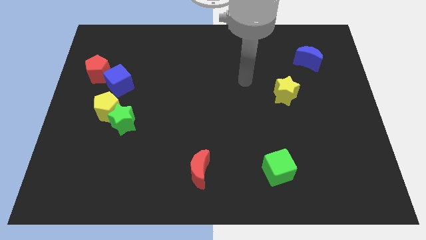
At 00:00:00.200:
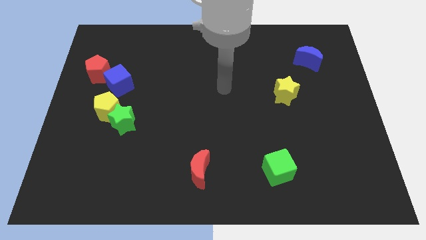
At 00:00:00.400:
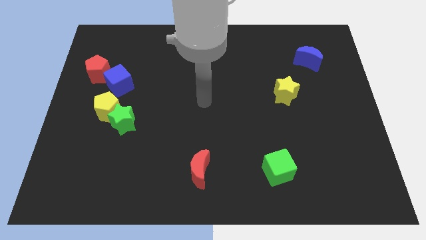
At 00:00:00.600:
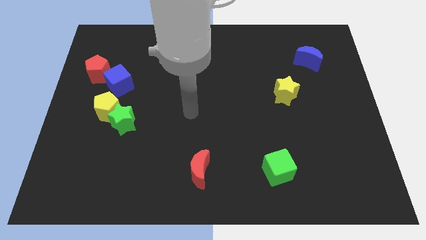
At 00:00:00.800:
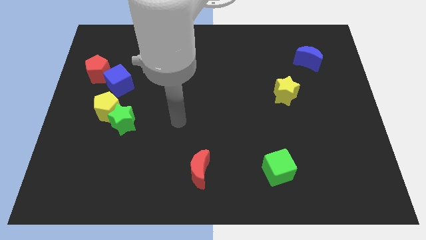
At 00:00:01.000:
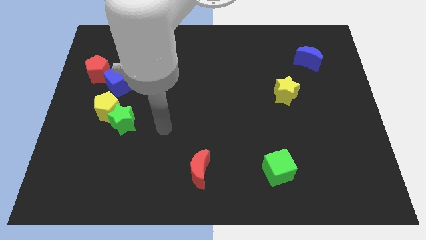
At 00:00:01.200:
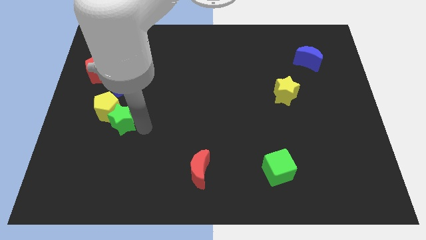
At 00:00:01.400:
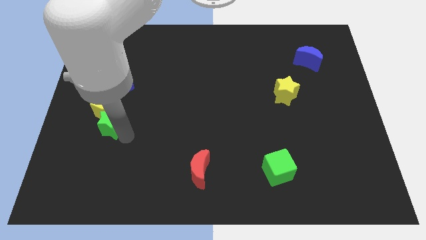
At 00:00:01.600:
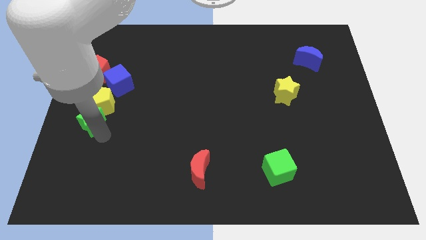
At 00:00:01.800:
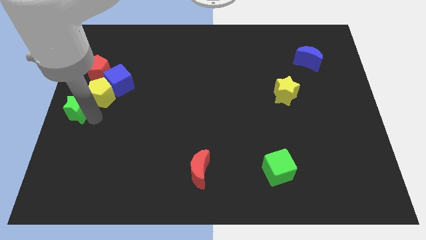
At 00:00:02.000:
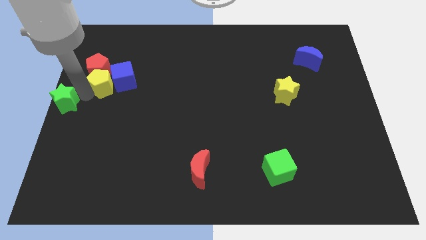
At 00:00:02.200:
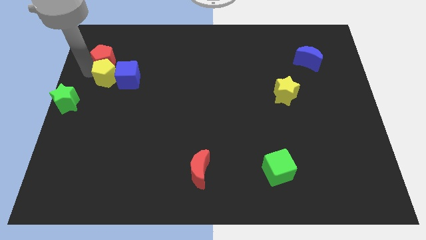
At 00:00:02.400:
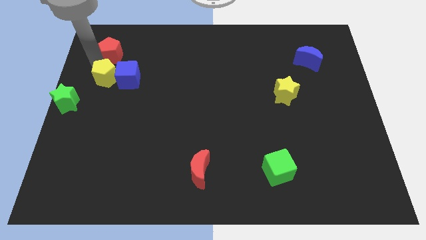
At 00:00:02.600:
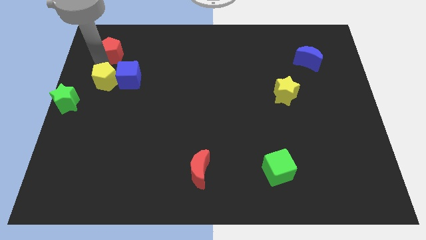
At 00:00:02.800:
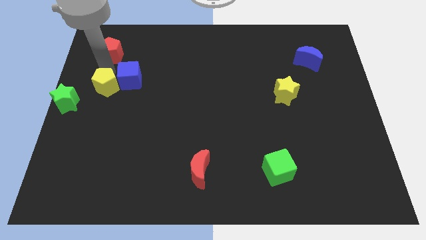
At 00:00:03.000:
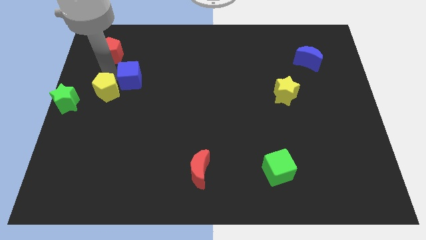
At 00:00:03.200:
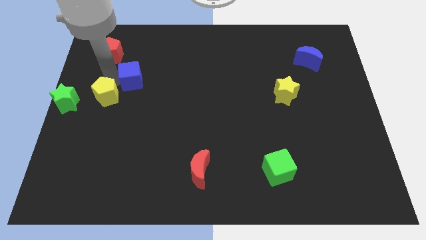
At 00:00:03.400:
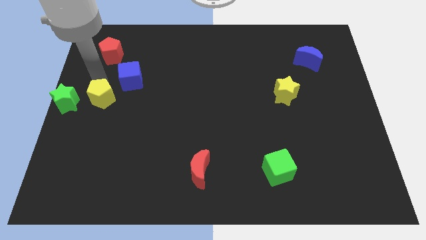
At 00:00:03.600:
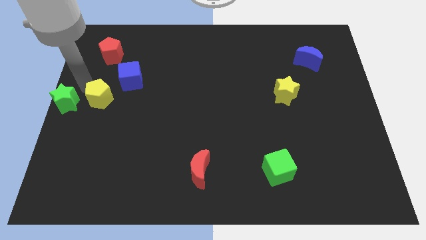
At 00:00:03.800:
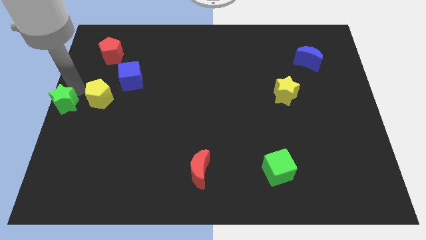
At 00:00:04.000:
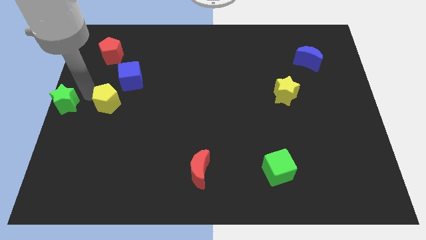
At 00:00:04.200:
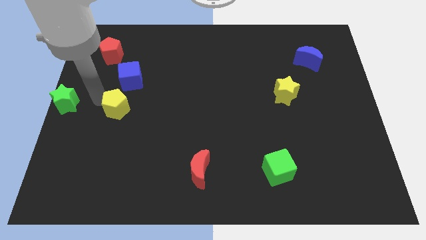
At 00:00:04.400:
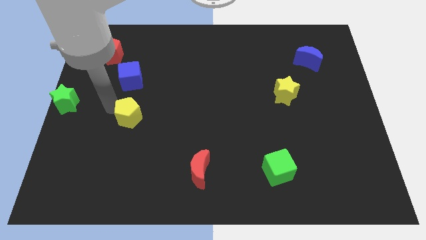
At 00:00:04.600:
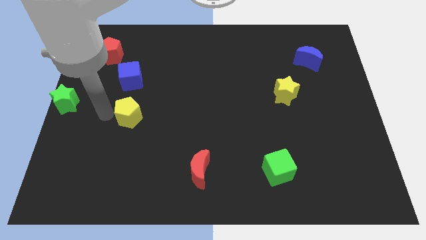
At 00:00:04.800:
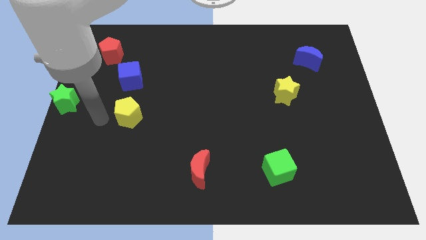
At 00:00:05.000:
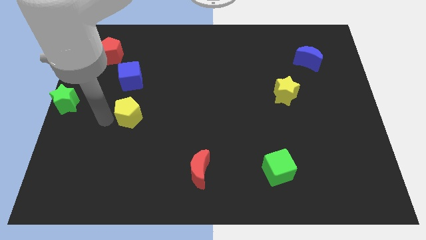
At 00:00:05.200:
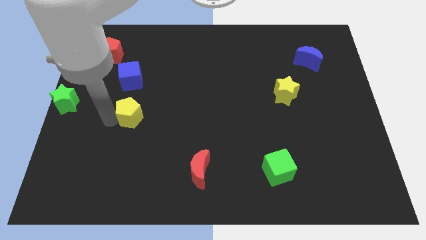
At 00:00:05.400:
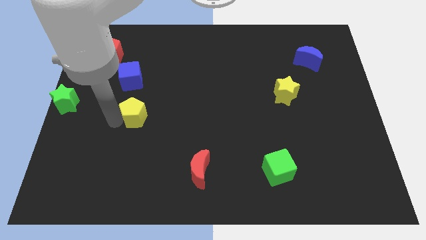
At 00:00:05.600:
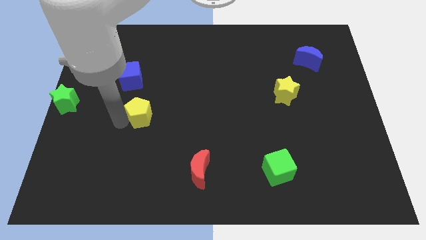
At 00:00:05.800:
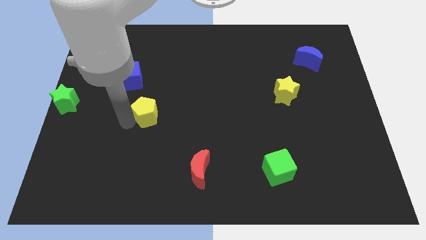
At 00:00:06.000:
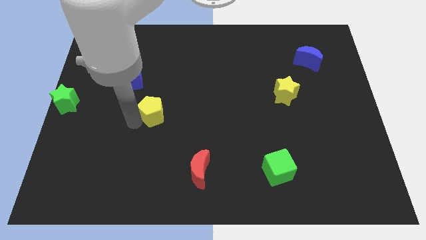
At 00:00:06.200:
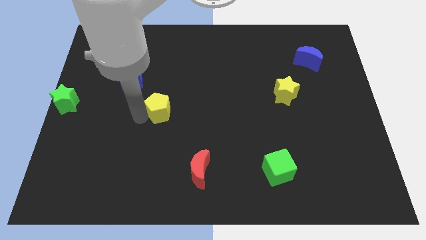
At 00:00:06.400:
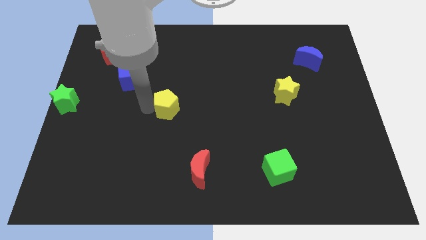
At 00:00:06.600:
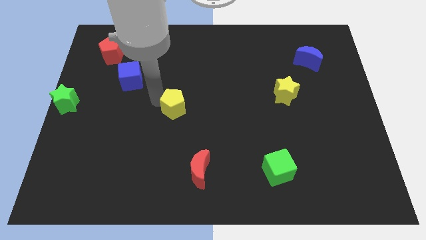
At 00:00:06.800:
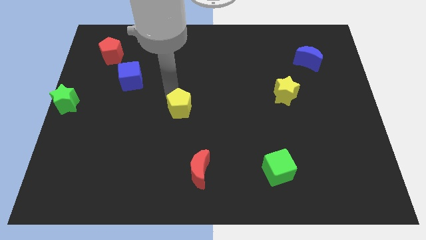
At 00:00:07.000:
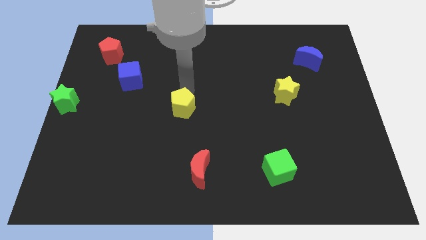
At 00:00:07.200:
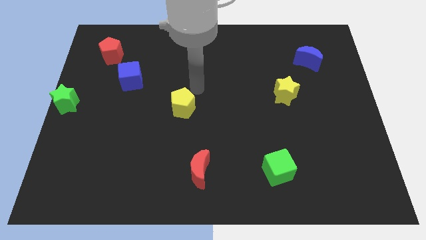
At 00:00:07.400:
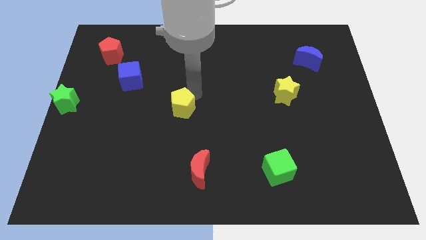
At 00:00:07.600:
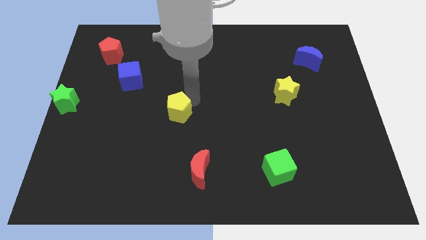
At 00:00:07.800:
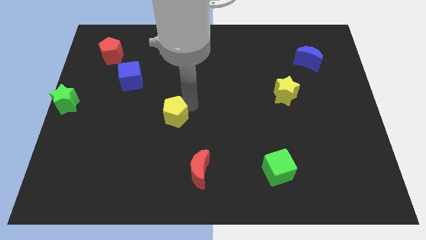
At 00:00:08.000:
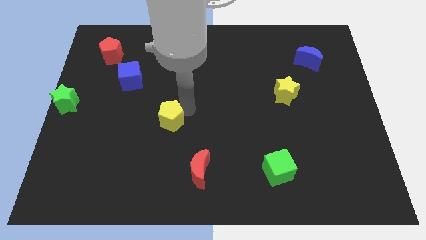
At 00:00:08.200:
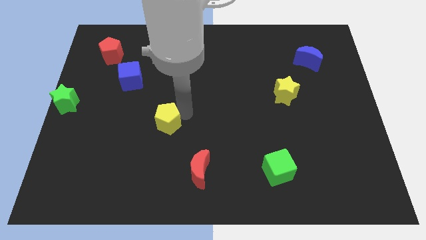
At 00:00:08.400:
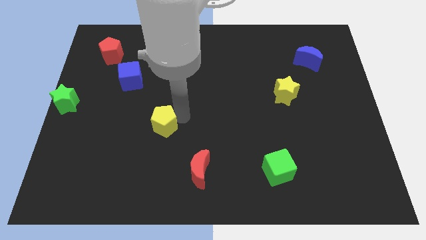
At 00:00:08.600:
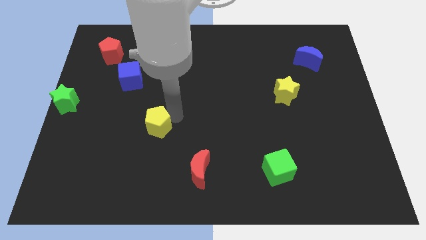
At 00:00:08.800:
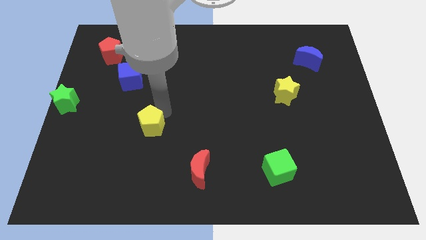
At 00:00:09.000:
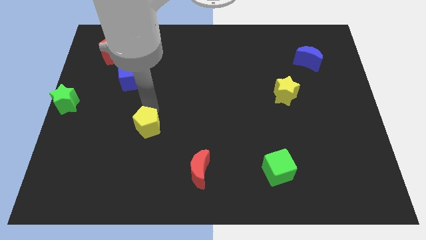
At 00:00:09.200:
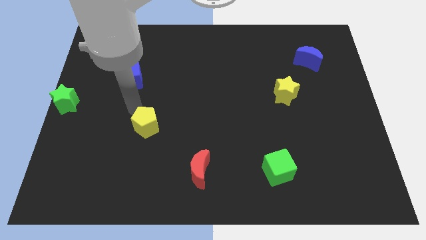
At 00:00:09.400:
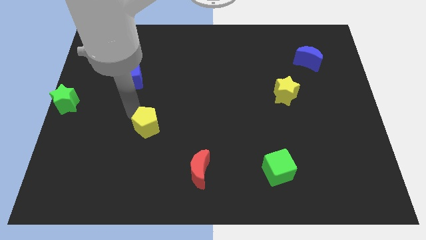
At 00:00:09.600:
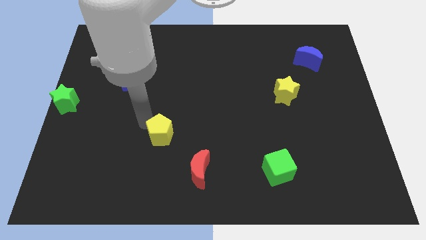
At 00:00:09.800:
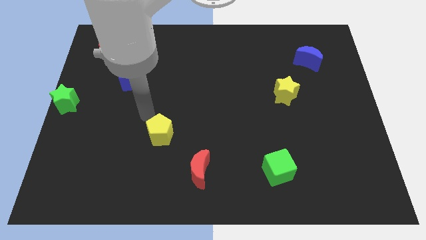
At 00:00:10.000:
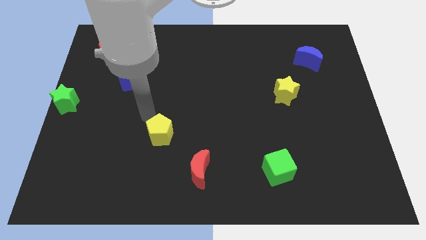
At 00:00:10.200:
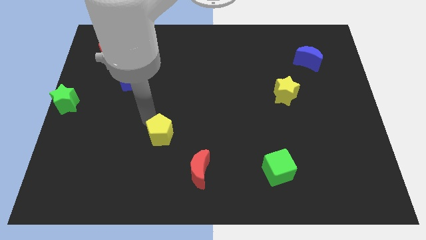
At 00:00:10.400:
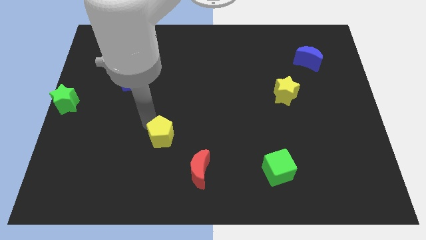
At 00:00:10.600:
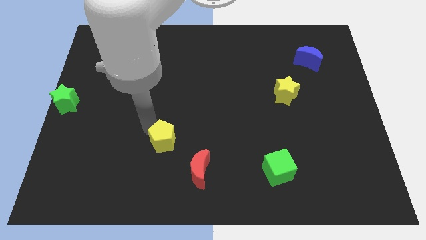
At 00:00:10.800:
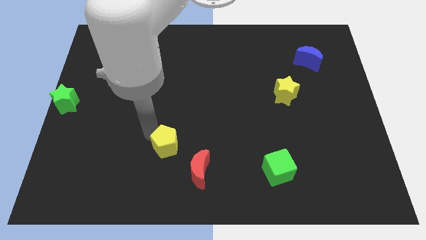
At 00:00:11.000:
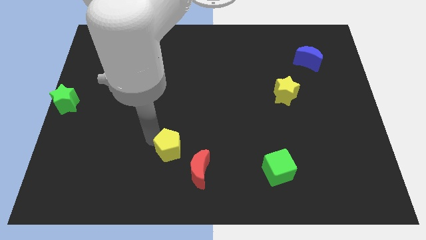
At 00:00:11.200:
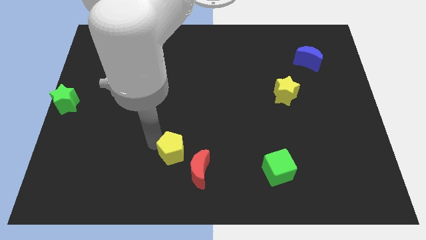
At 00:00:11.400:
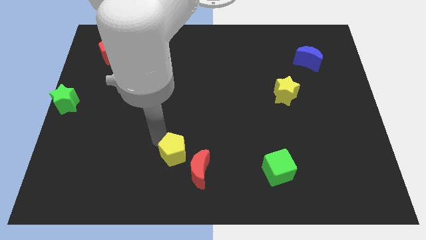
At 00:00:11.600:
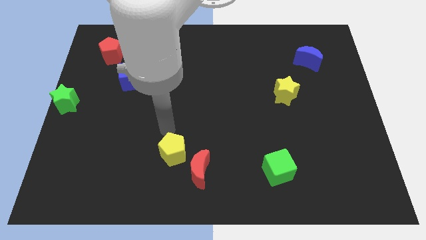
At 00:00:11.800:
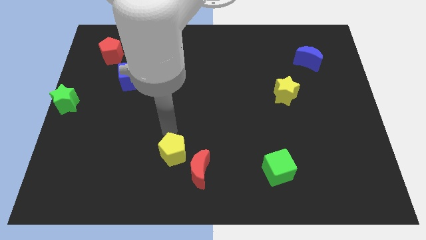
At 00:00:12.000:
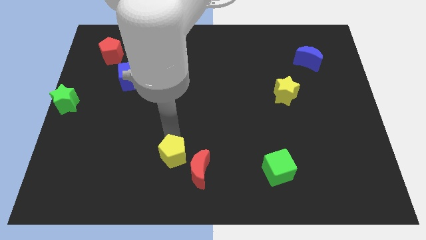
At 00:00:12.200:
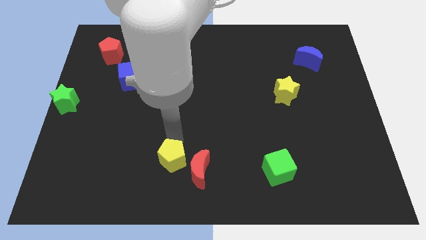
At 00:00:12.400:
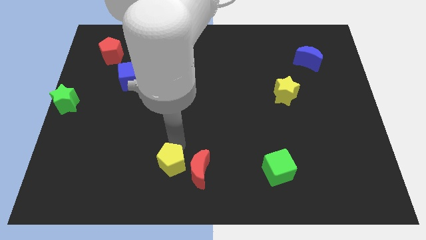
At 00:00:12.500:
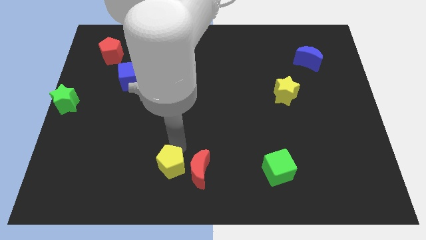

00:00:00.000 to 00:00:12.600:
put the yellow pentagon to the bottom

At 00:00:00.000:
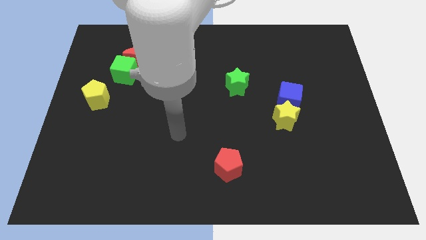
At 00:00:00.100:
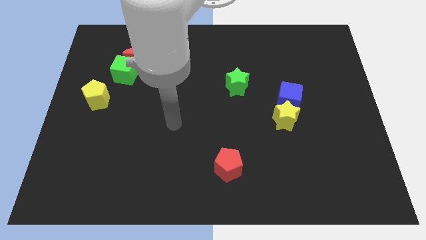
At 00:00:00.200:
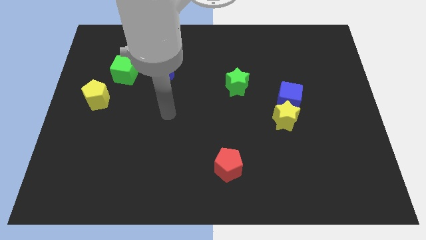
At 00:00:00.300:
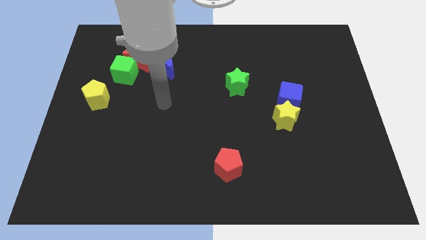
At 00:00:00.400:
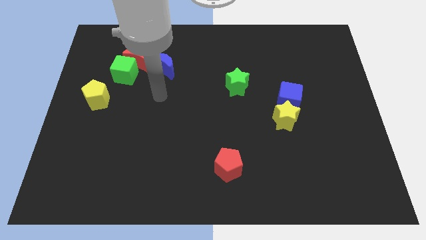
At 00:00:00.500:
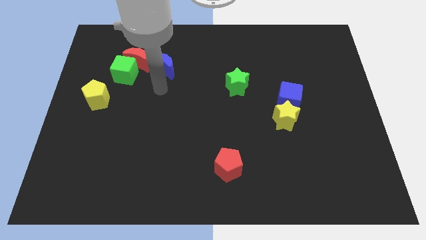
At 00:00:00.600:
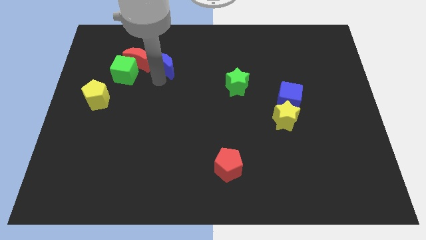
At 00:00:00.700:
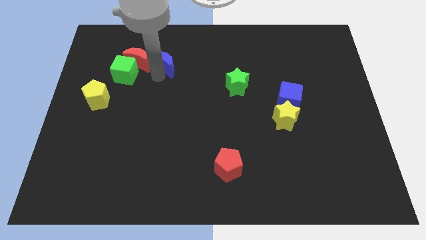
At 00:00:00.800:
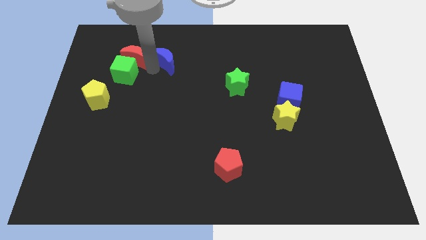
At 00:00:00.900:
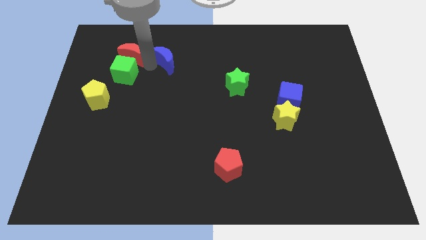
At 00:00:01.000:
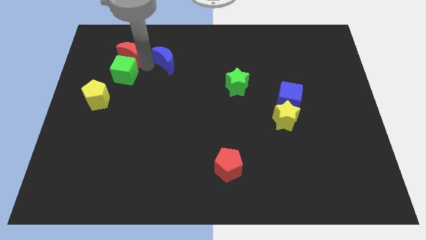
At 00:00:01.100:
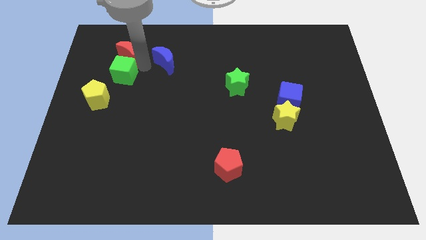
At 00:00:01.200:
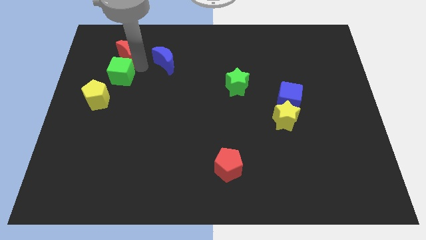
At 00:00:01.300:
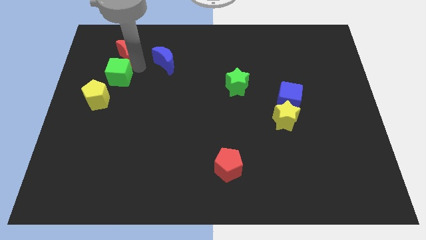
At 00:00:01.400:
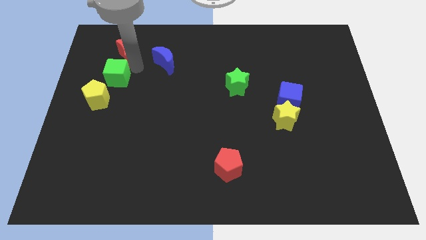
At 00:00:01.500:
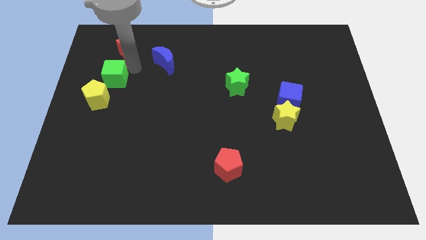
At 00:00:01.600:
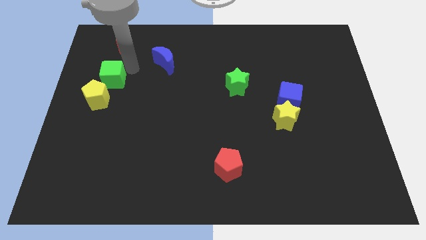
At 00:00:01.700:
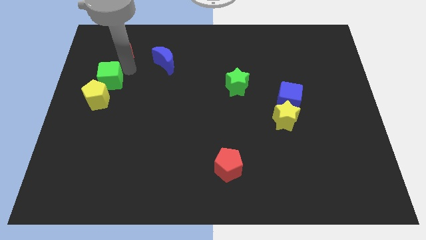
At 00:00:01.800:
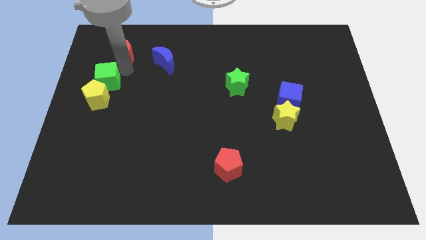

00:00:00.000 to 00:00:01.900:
push the green cube to the left side
